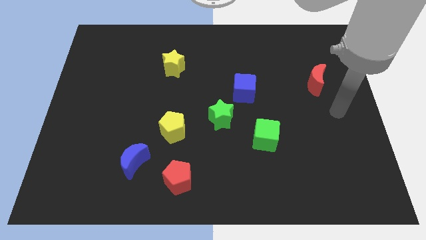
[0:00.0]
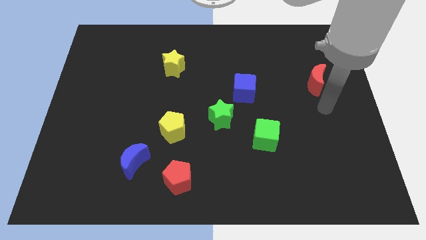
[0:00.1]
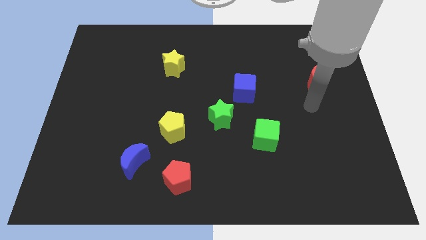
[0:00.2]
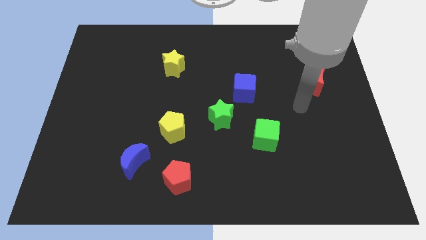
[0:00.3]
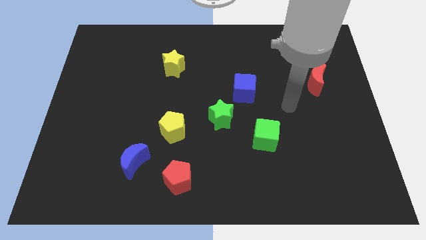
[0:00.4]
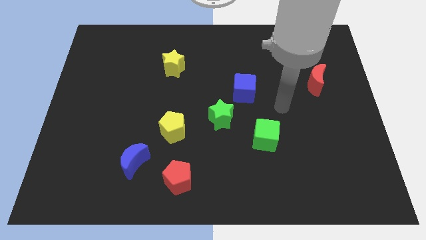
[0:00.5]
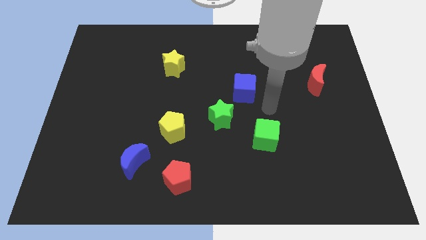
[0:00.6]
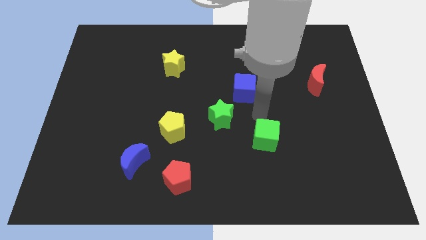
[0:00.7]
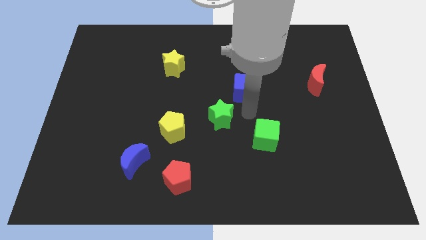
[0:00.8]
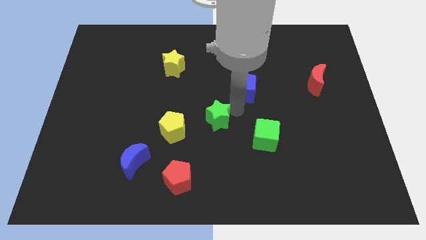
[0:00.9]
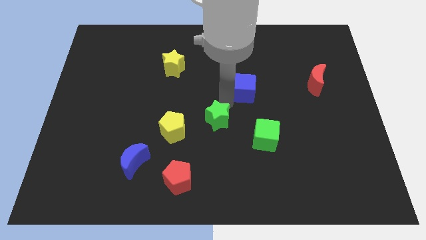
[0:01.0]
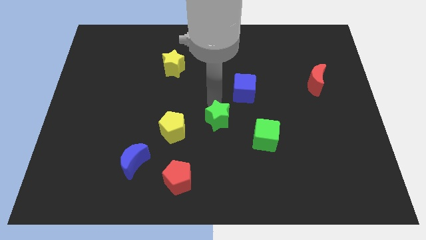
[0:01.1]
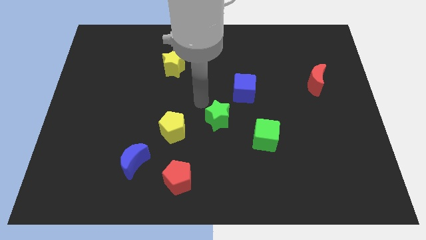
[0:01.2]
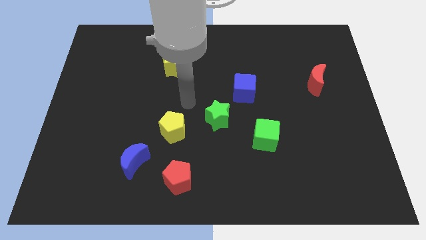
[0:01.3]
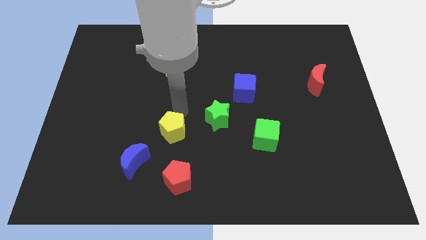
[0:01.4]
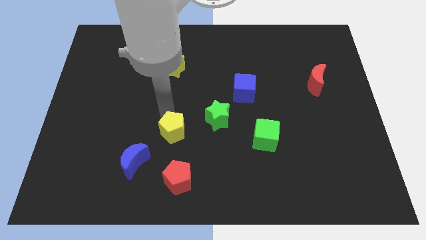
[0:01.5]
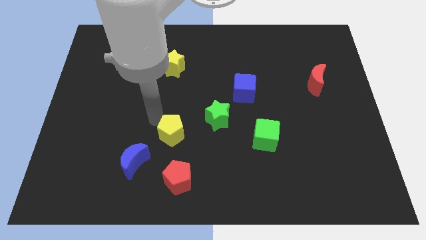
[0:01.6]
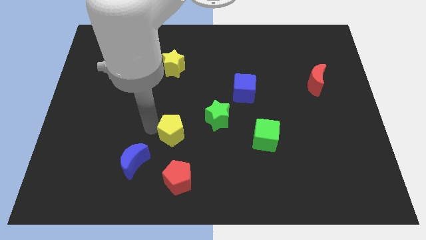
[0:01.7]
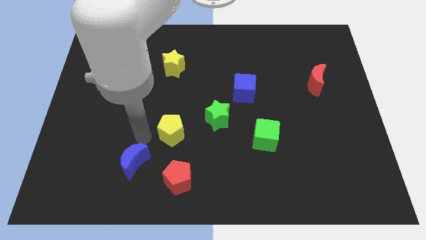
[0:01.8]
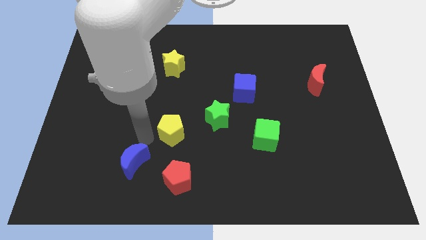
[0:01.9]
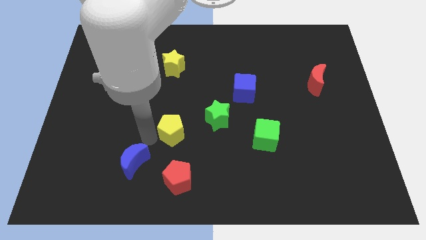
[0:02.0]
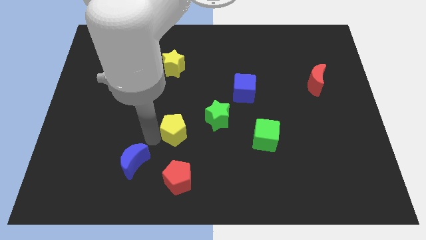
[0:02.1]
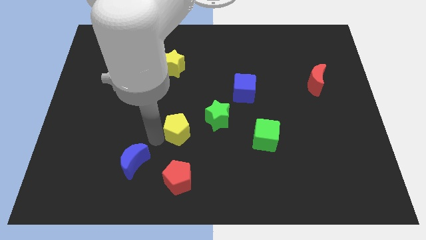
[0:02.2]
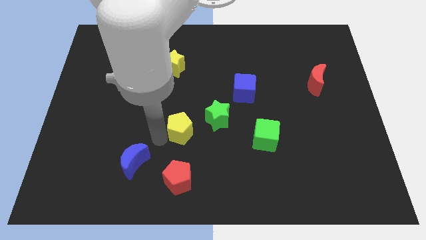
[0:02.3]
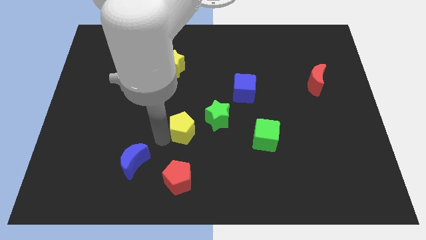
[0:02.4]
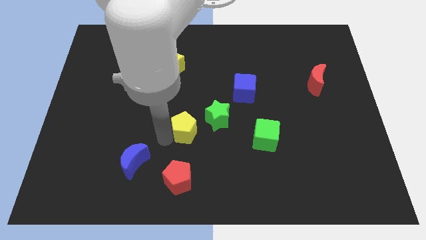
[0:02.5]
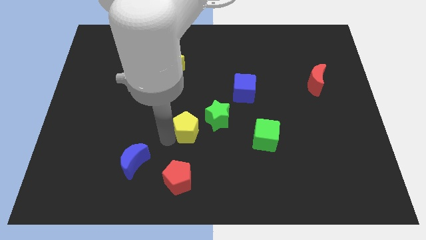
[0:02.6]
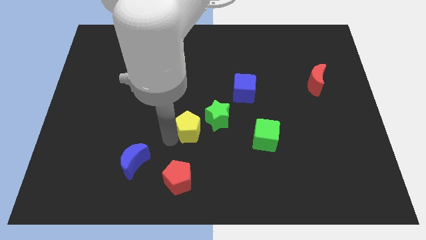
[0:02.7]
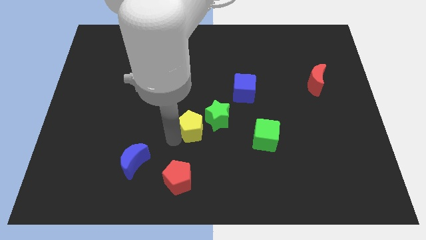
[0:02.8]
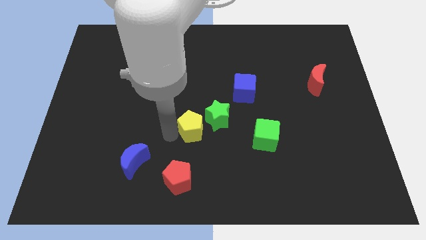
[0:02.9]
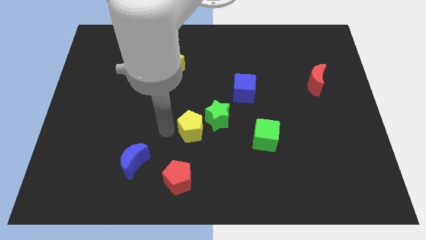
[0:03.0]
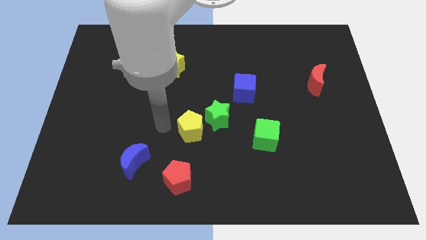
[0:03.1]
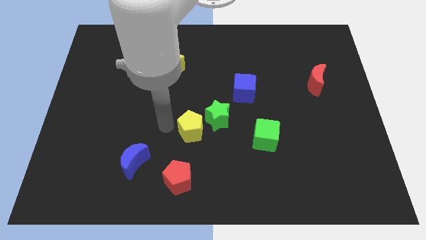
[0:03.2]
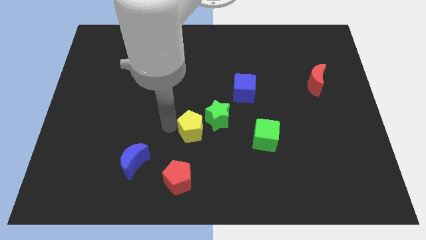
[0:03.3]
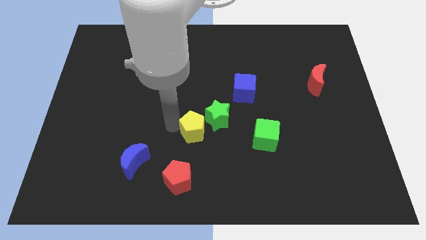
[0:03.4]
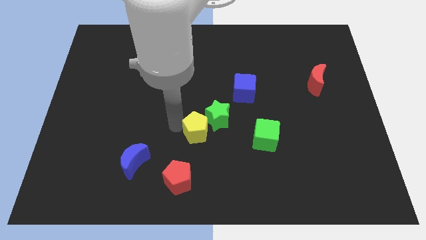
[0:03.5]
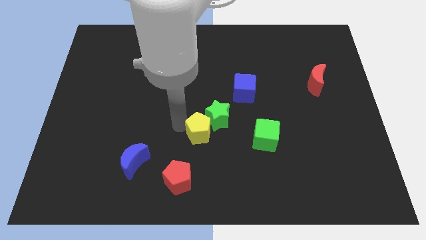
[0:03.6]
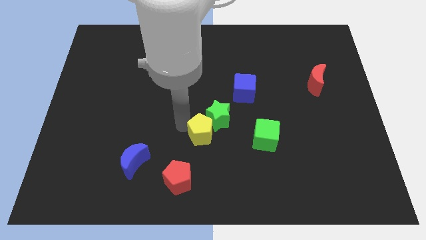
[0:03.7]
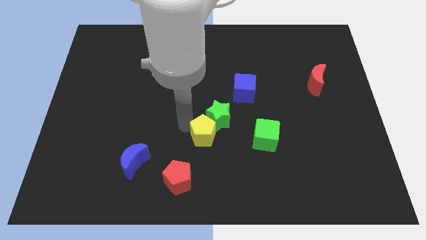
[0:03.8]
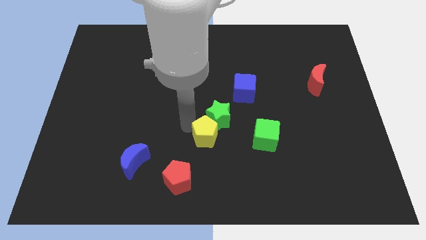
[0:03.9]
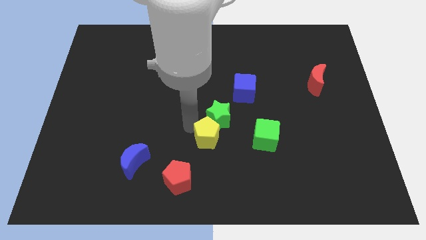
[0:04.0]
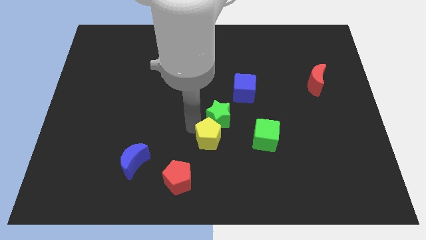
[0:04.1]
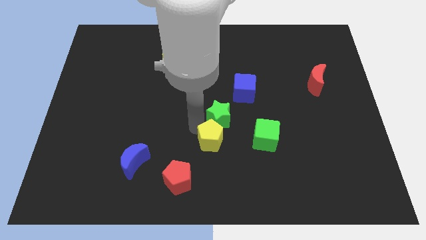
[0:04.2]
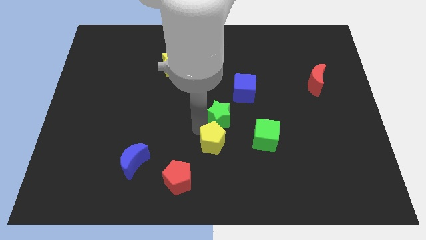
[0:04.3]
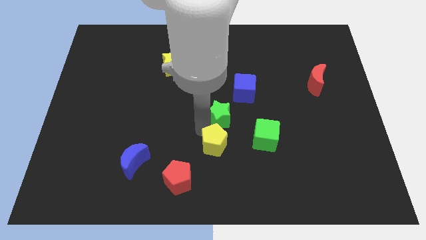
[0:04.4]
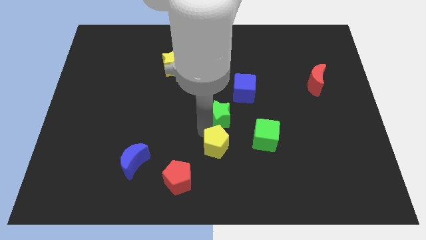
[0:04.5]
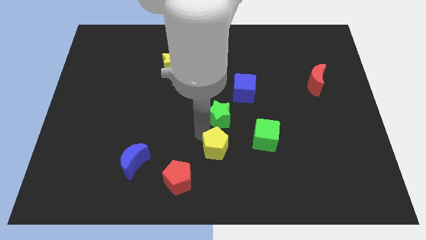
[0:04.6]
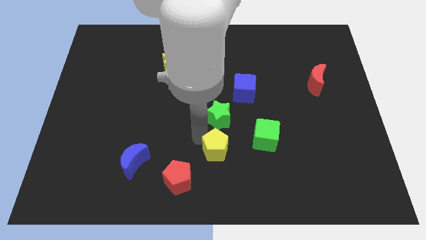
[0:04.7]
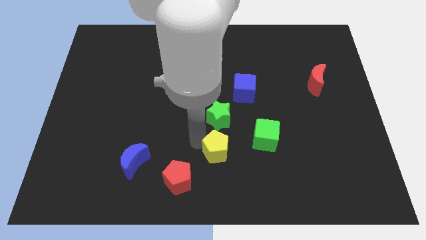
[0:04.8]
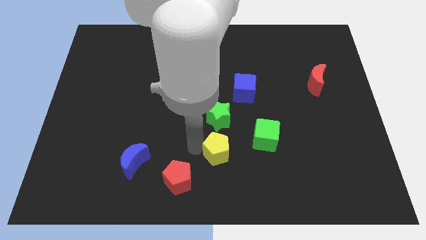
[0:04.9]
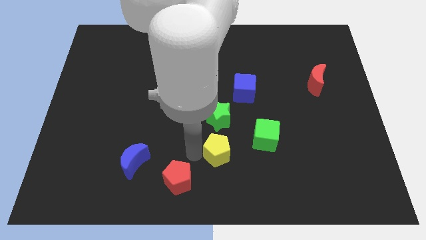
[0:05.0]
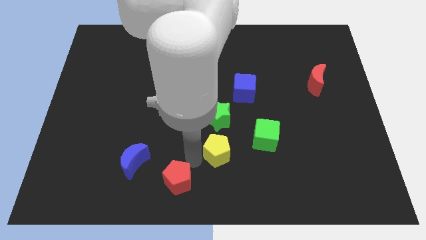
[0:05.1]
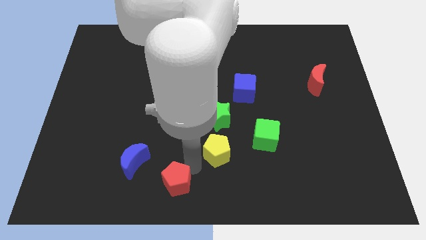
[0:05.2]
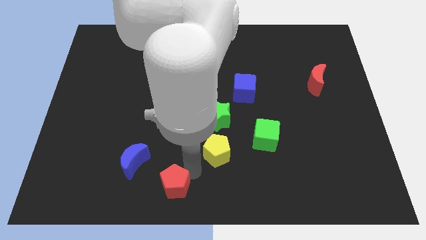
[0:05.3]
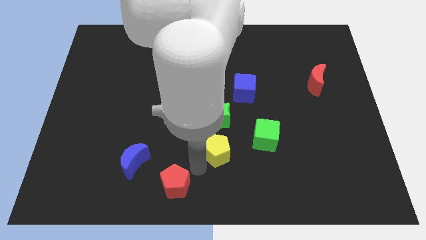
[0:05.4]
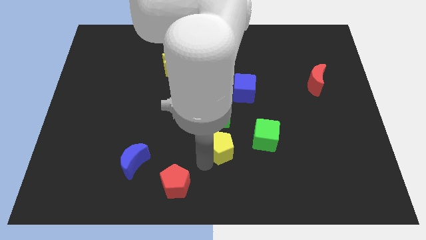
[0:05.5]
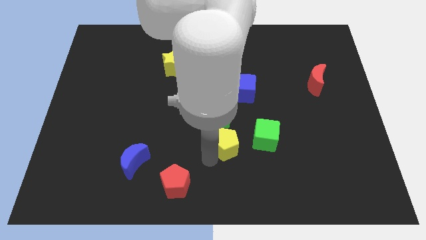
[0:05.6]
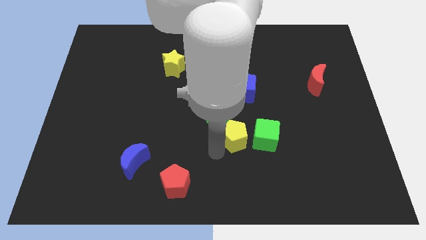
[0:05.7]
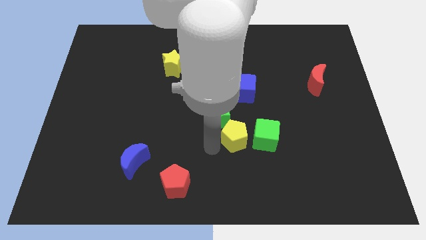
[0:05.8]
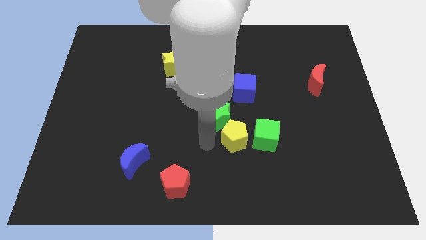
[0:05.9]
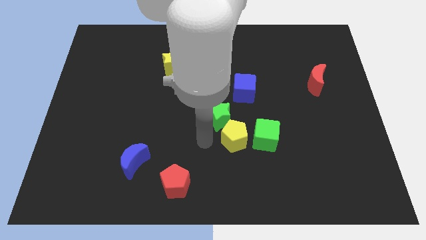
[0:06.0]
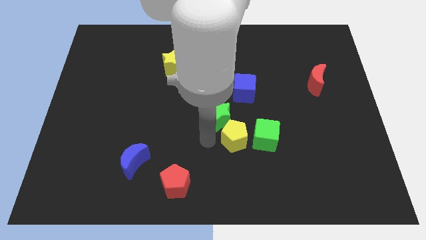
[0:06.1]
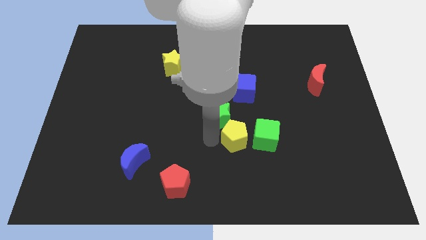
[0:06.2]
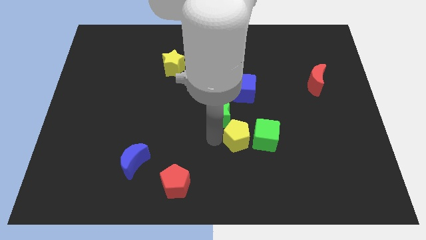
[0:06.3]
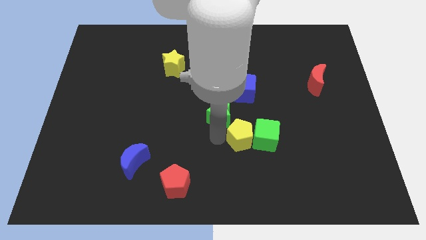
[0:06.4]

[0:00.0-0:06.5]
push the yellow pentagon towards the green cube

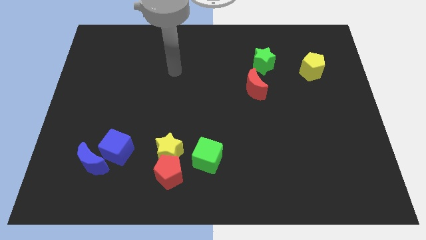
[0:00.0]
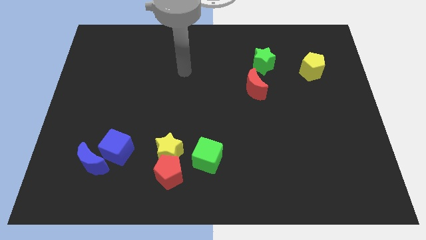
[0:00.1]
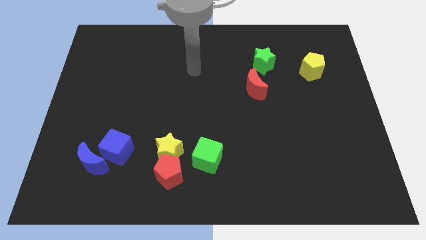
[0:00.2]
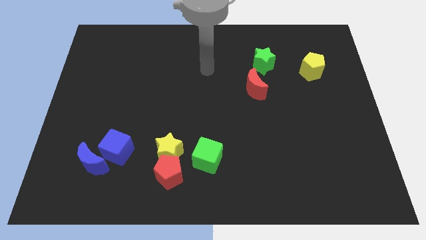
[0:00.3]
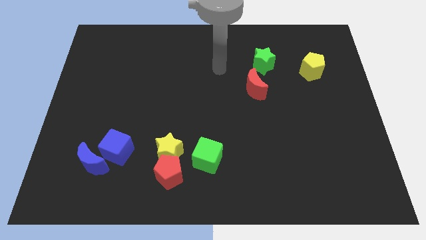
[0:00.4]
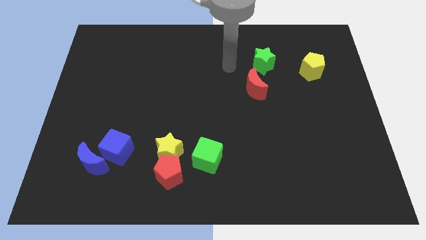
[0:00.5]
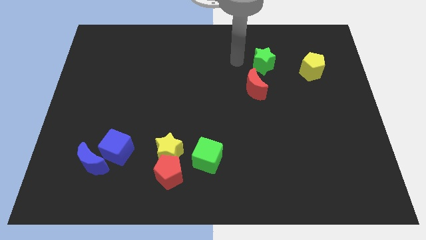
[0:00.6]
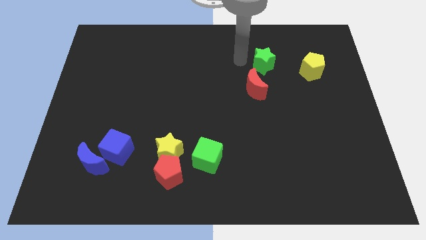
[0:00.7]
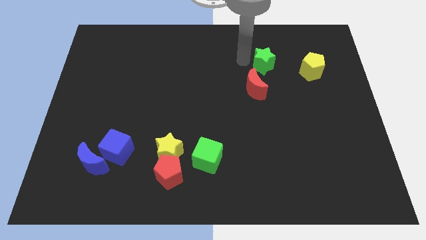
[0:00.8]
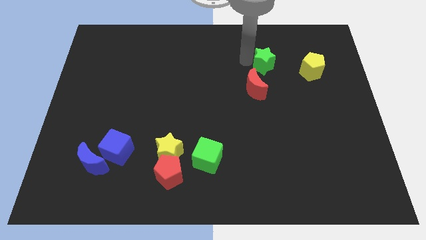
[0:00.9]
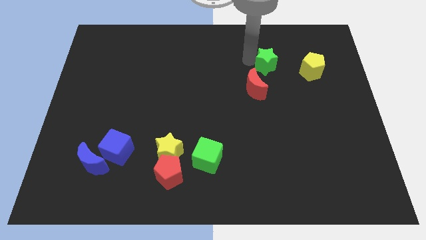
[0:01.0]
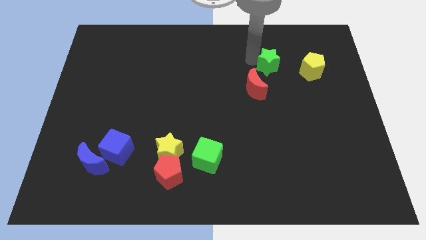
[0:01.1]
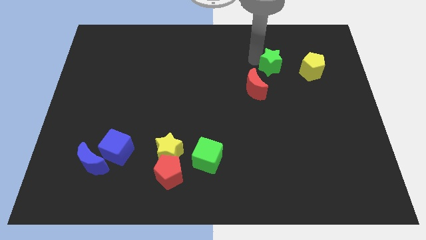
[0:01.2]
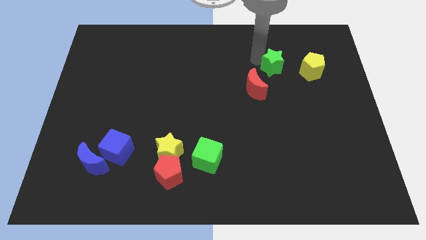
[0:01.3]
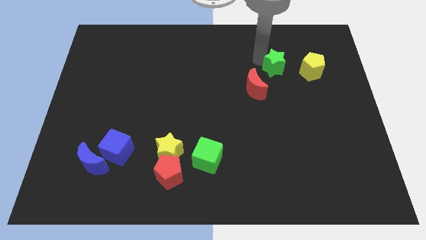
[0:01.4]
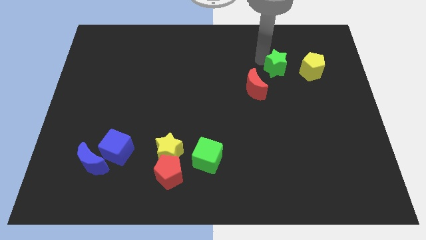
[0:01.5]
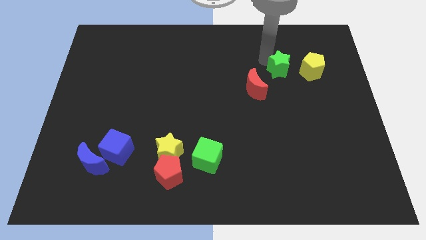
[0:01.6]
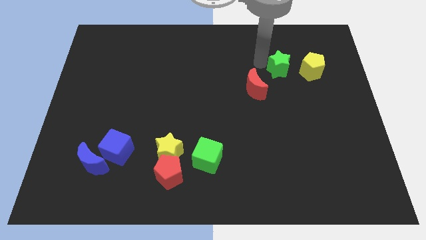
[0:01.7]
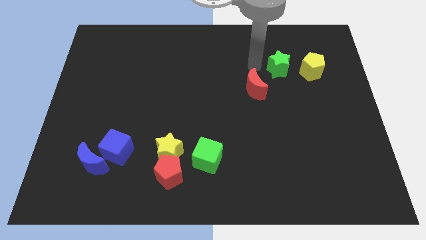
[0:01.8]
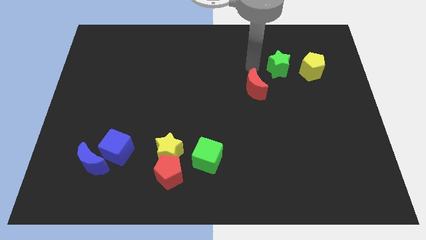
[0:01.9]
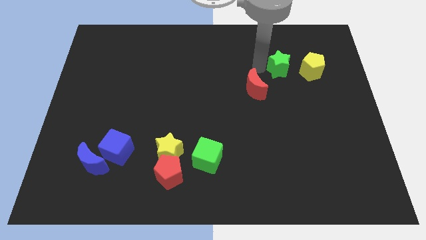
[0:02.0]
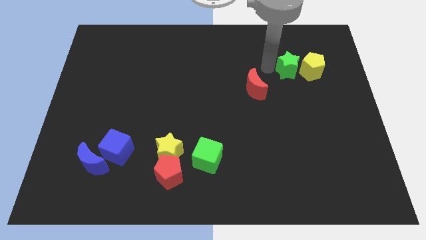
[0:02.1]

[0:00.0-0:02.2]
put the green star next to the yellow pentagon
